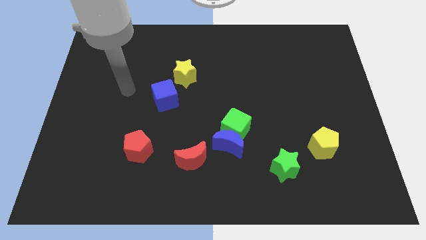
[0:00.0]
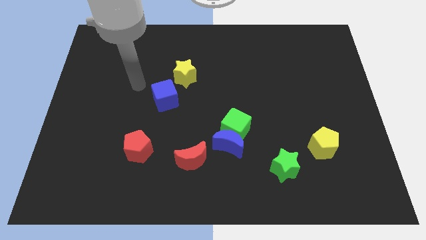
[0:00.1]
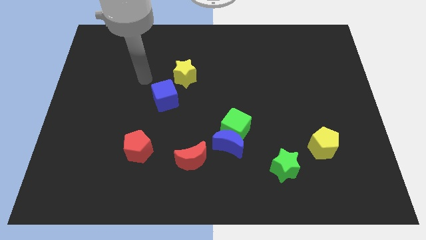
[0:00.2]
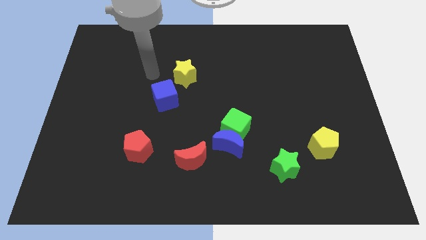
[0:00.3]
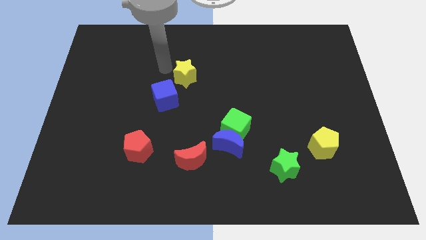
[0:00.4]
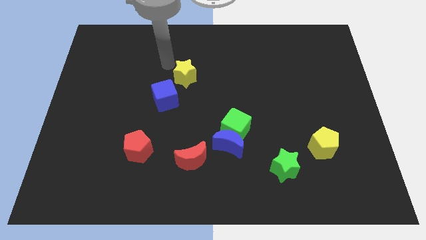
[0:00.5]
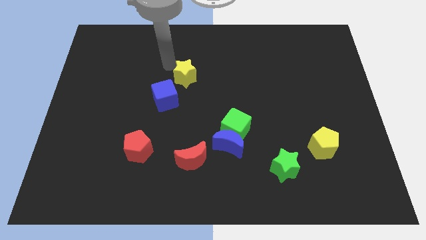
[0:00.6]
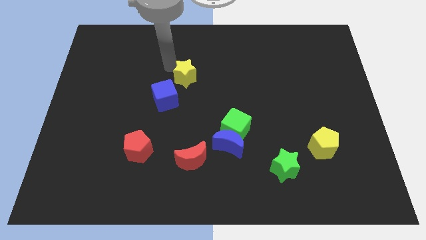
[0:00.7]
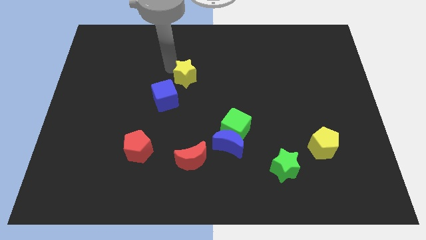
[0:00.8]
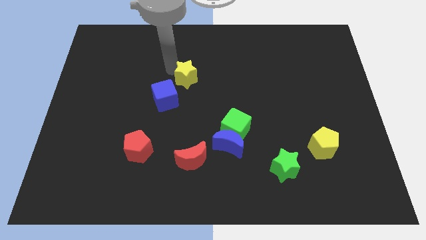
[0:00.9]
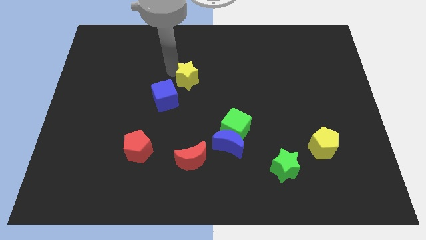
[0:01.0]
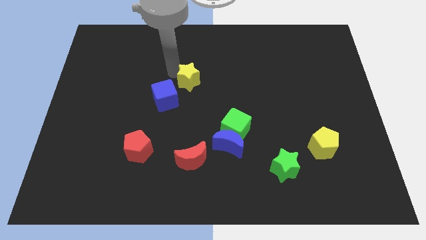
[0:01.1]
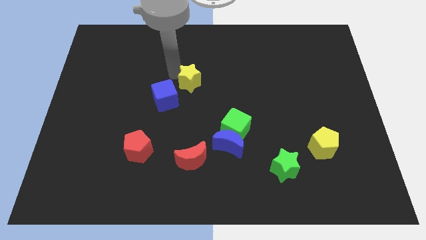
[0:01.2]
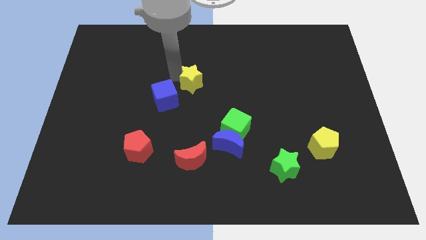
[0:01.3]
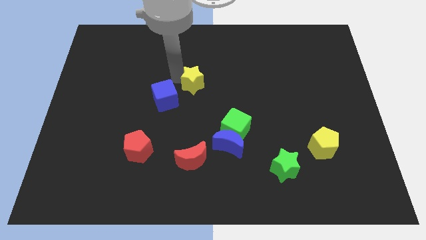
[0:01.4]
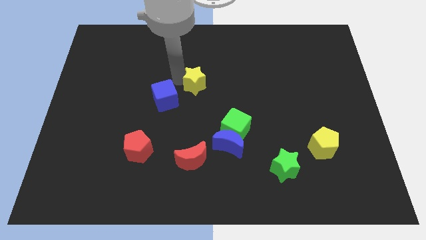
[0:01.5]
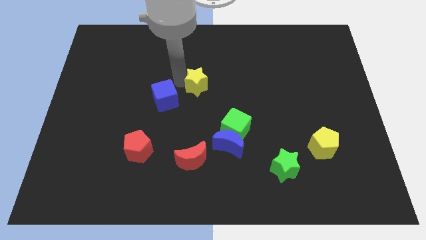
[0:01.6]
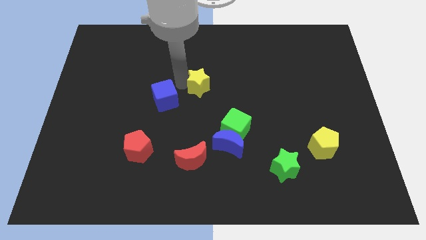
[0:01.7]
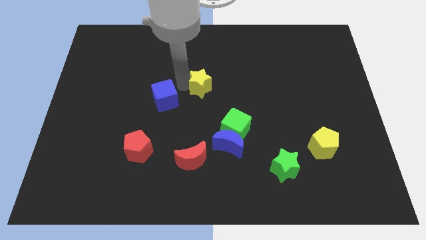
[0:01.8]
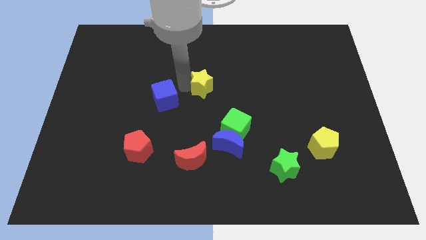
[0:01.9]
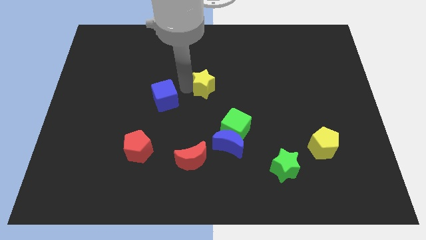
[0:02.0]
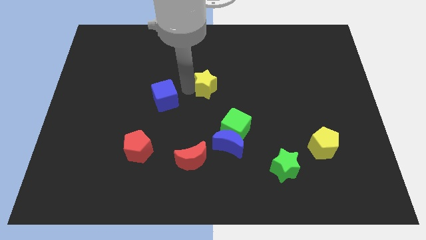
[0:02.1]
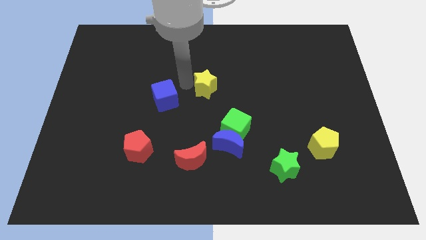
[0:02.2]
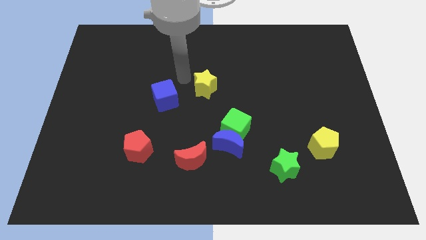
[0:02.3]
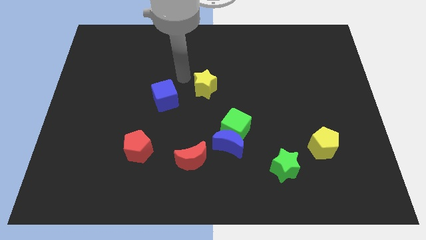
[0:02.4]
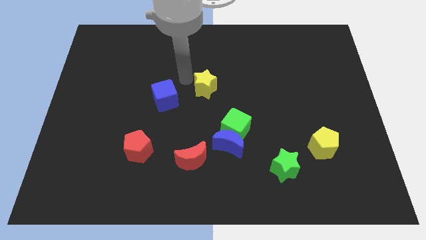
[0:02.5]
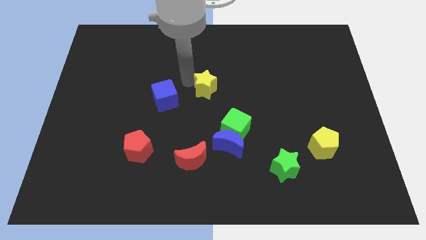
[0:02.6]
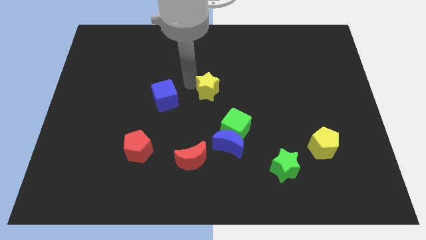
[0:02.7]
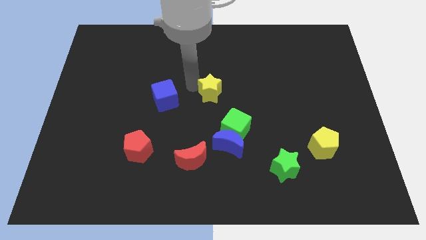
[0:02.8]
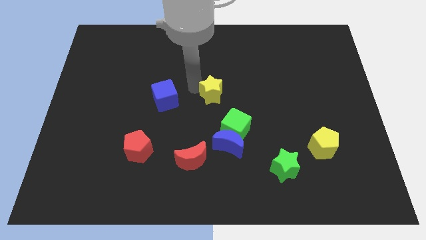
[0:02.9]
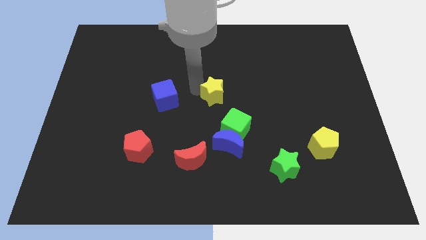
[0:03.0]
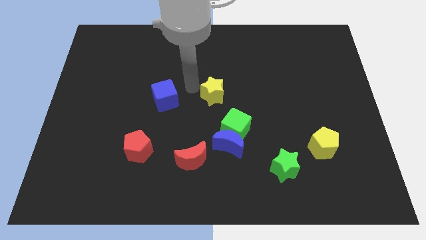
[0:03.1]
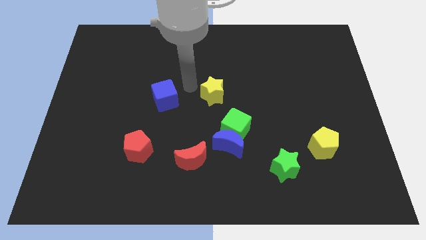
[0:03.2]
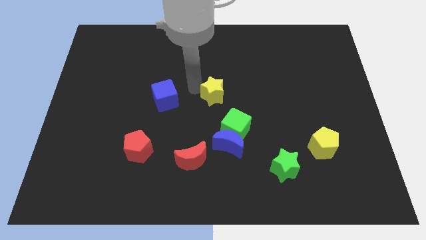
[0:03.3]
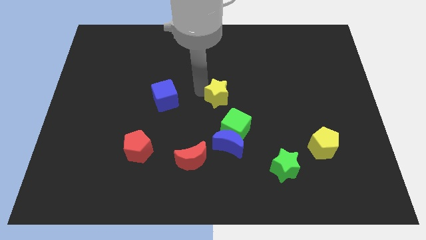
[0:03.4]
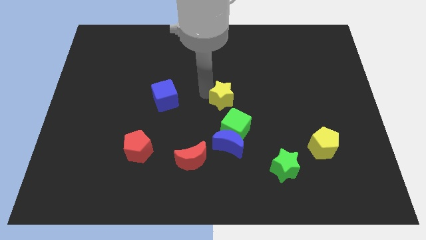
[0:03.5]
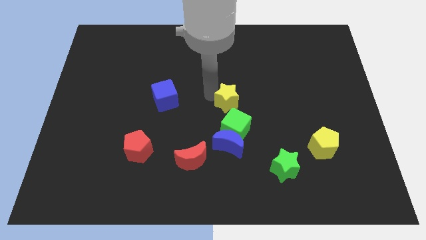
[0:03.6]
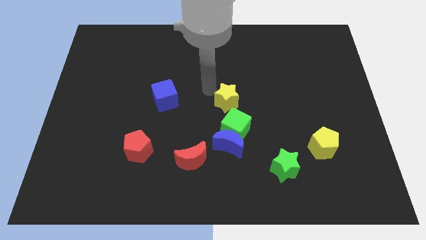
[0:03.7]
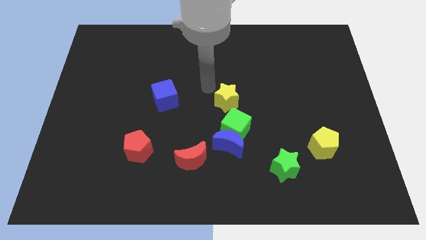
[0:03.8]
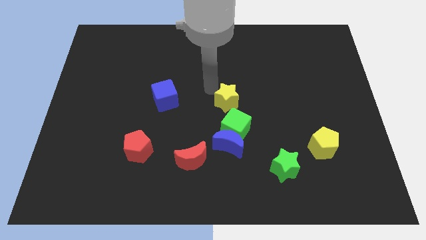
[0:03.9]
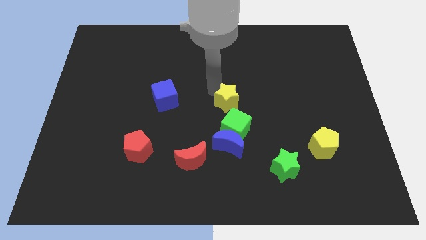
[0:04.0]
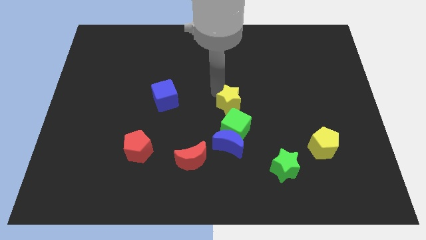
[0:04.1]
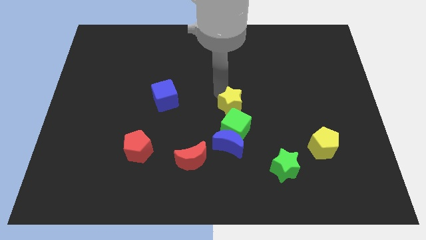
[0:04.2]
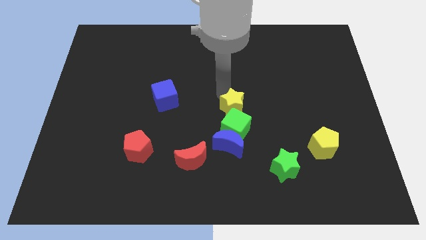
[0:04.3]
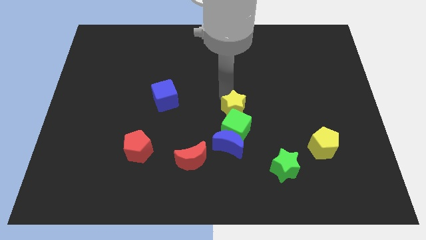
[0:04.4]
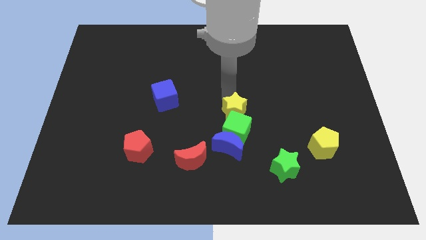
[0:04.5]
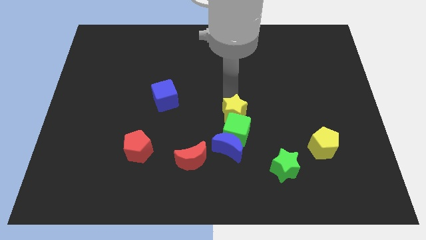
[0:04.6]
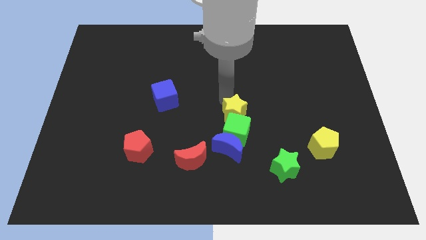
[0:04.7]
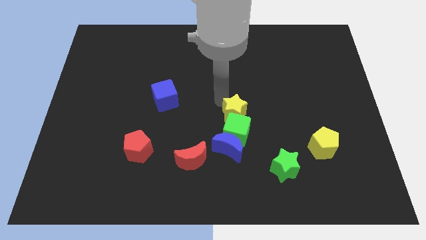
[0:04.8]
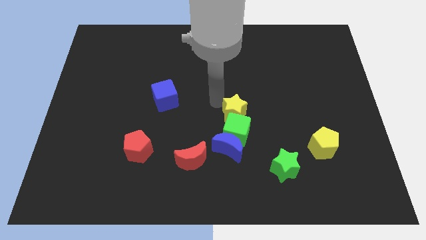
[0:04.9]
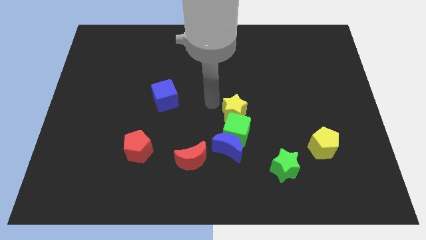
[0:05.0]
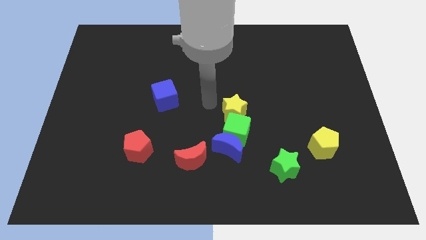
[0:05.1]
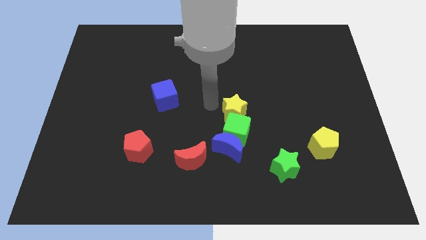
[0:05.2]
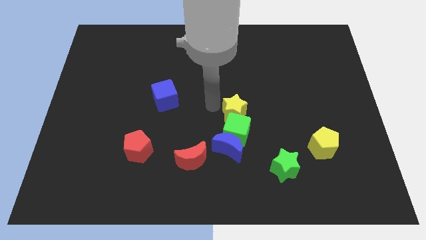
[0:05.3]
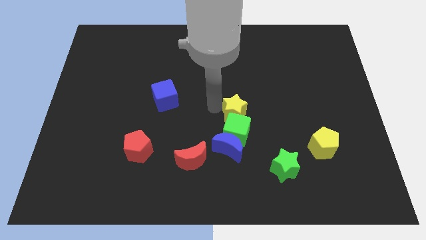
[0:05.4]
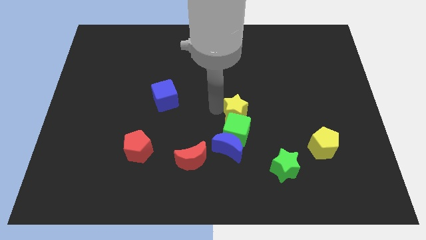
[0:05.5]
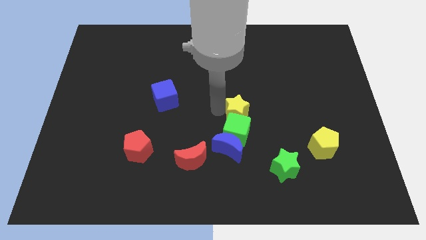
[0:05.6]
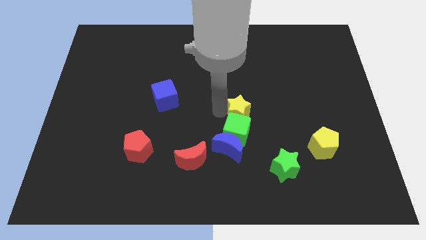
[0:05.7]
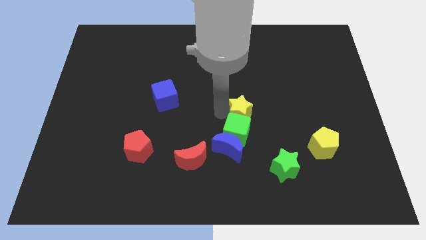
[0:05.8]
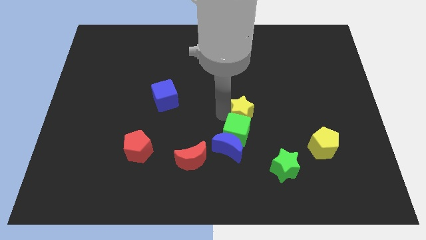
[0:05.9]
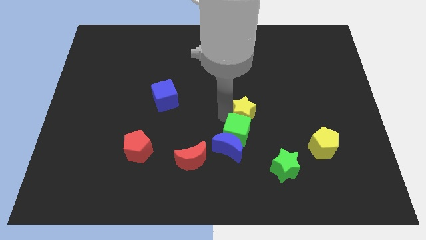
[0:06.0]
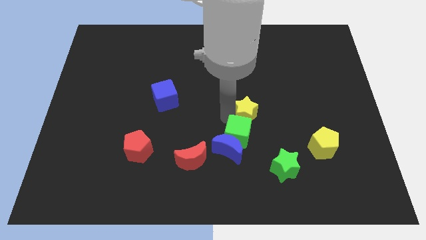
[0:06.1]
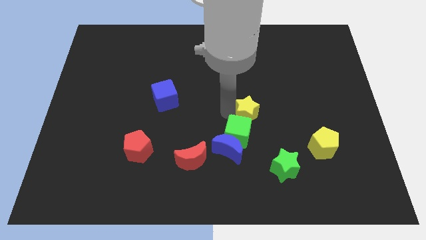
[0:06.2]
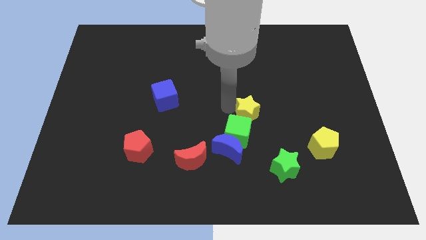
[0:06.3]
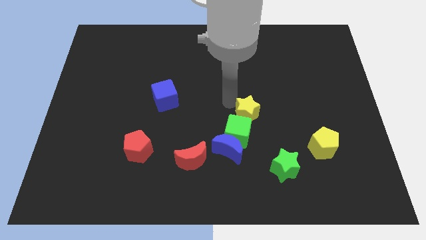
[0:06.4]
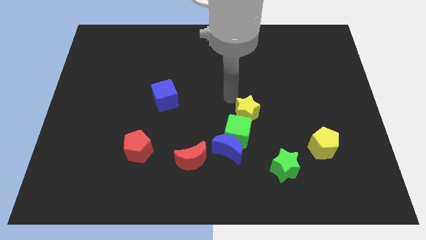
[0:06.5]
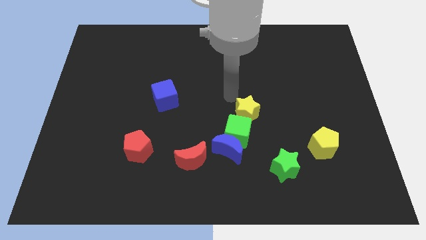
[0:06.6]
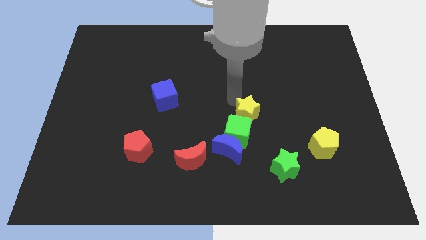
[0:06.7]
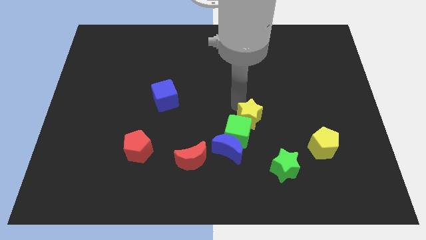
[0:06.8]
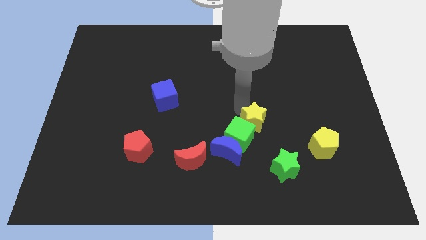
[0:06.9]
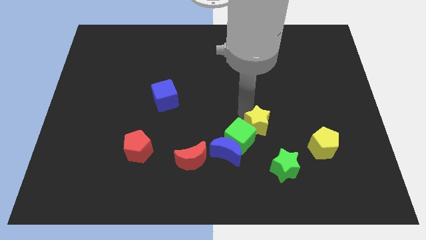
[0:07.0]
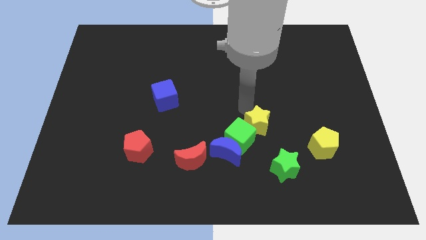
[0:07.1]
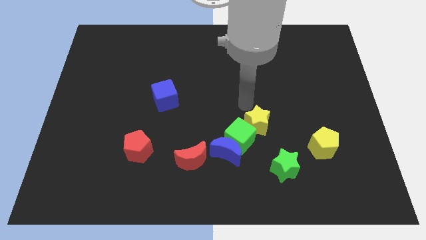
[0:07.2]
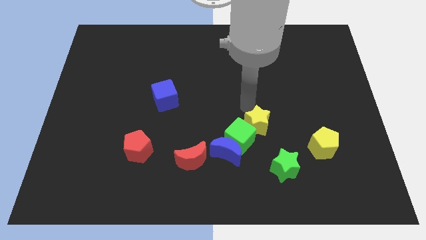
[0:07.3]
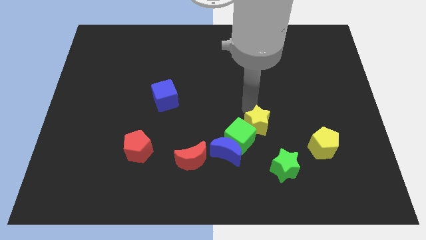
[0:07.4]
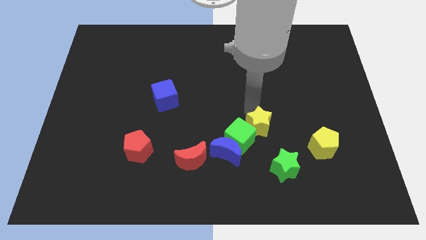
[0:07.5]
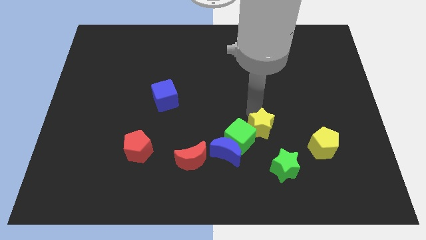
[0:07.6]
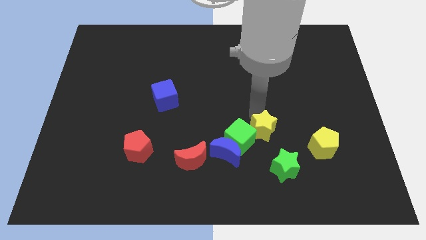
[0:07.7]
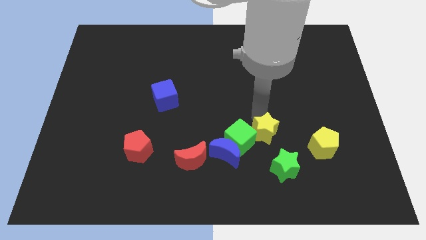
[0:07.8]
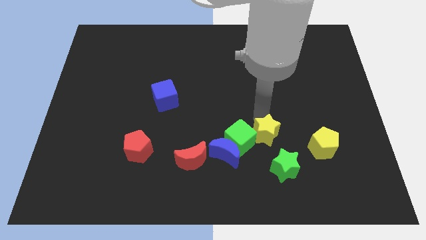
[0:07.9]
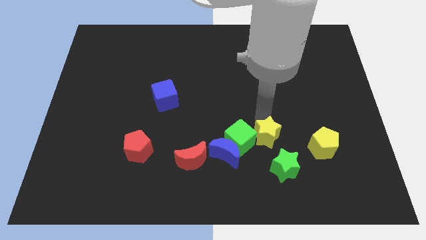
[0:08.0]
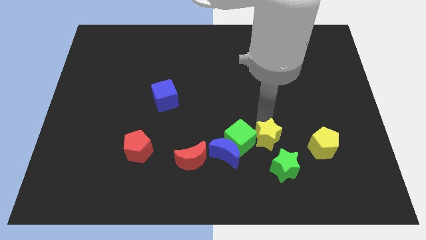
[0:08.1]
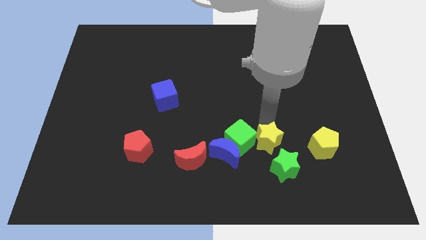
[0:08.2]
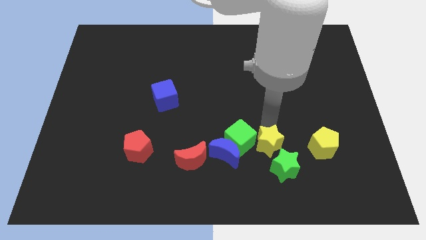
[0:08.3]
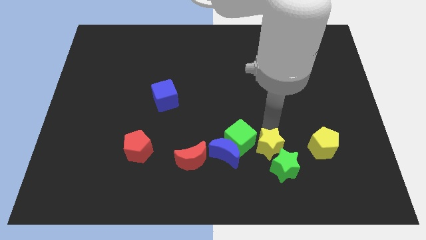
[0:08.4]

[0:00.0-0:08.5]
push the yellow star towards the green star
